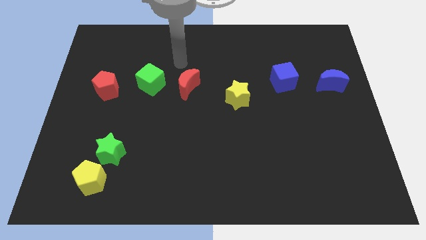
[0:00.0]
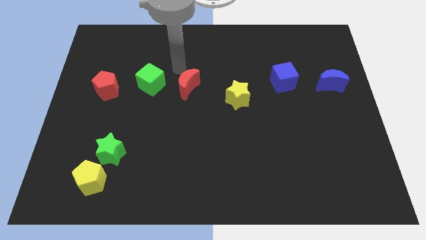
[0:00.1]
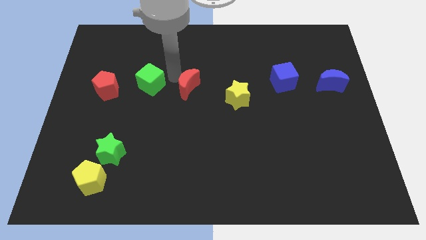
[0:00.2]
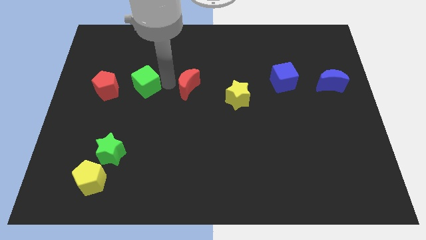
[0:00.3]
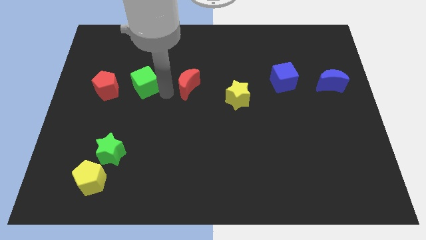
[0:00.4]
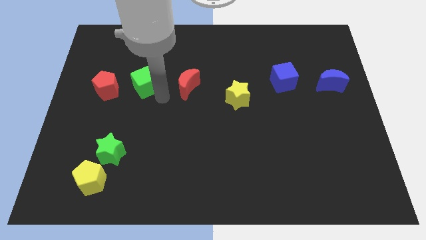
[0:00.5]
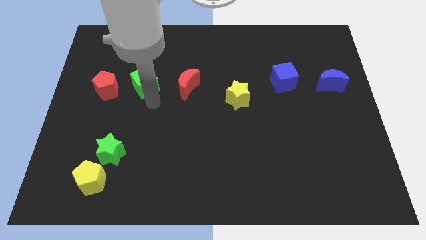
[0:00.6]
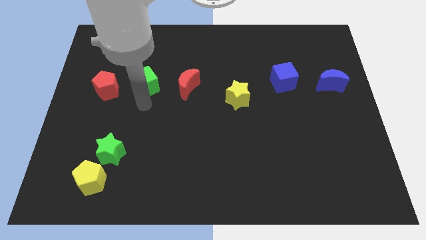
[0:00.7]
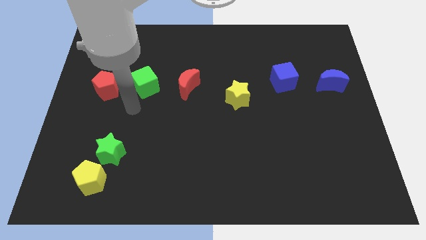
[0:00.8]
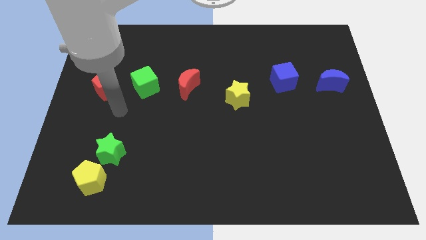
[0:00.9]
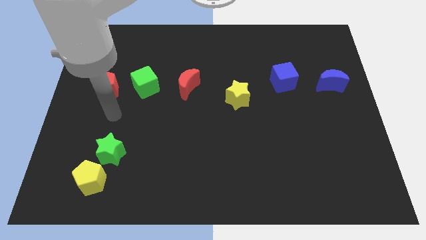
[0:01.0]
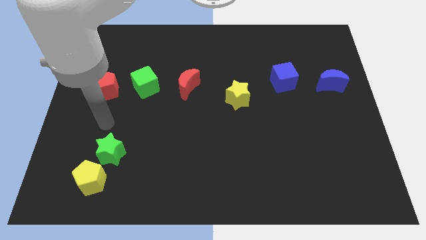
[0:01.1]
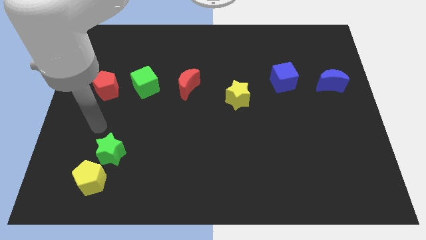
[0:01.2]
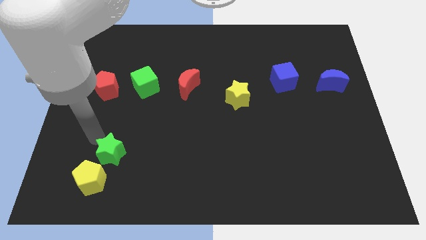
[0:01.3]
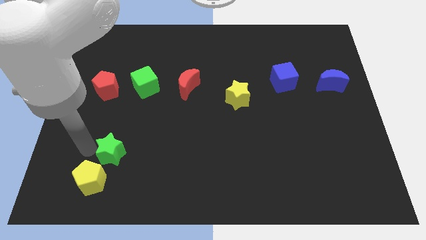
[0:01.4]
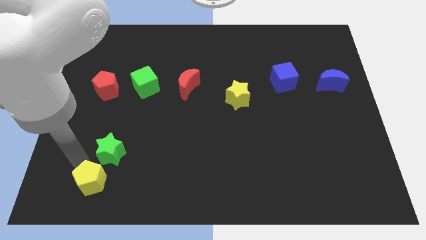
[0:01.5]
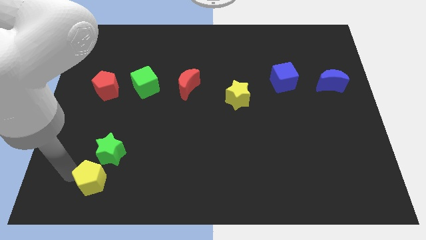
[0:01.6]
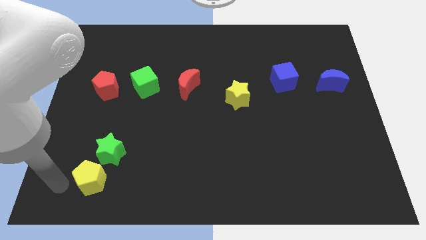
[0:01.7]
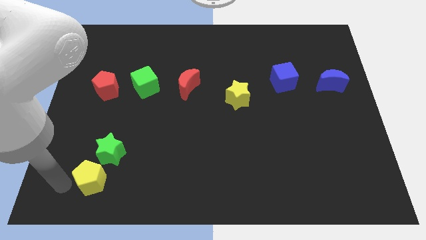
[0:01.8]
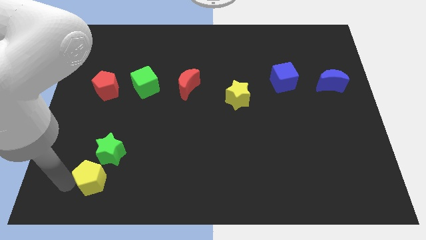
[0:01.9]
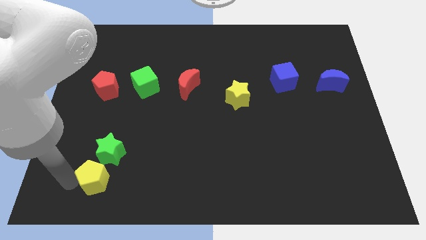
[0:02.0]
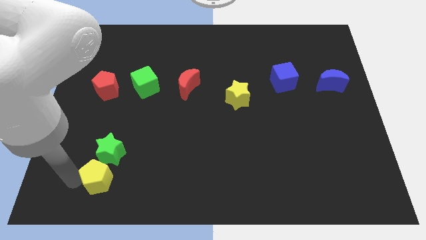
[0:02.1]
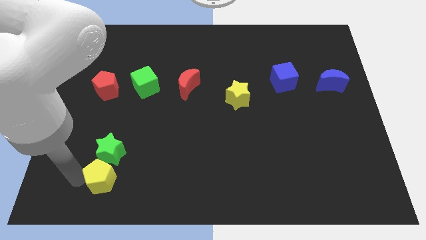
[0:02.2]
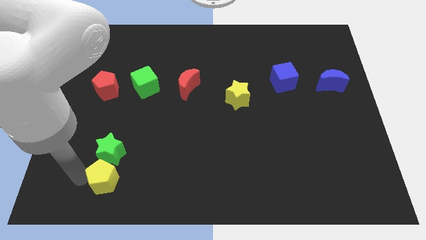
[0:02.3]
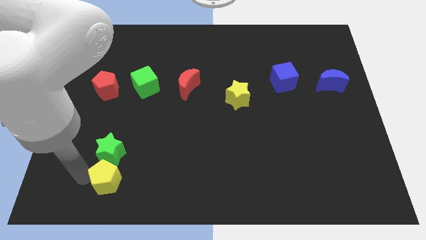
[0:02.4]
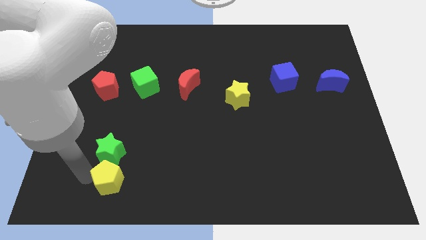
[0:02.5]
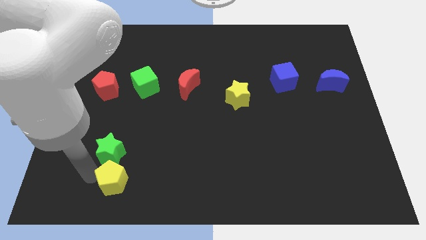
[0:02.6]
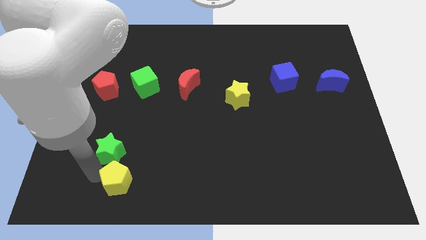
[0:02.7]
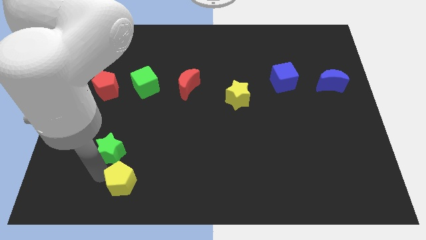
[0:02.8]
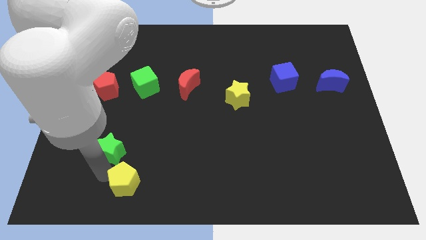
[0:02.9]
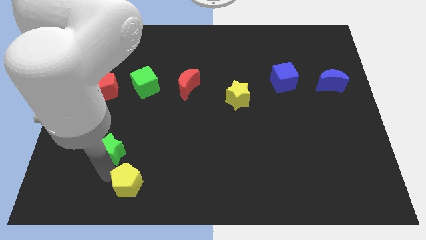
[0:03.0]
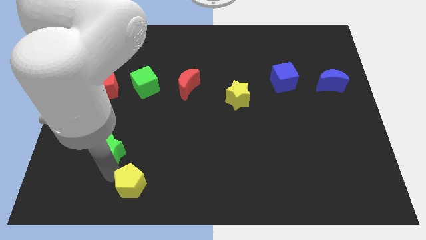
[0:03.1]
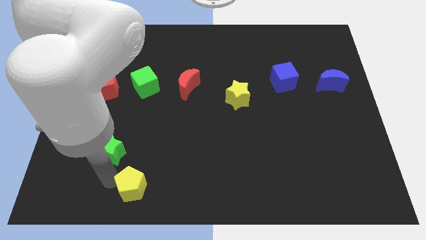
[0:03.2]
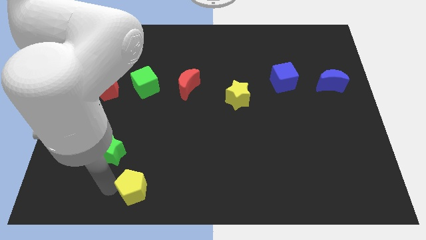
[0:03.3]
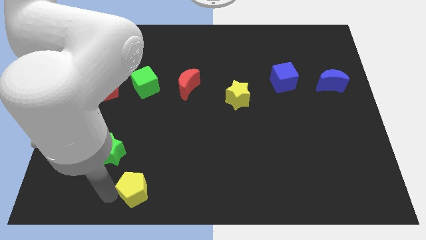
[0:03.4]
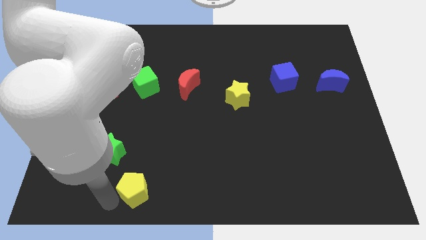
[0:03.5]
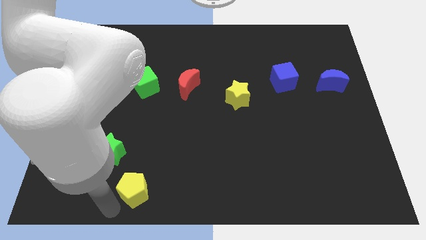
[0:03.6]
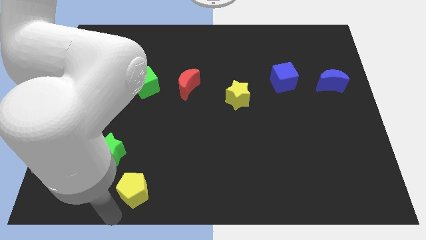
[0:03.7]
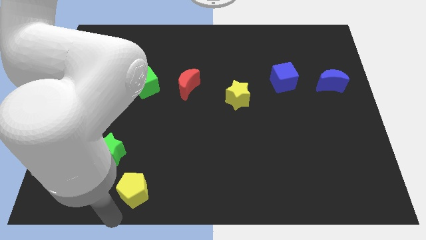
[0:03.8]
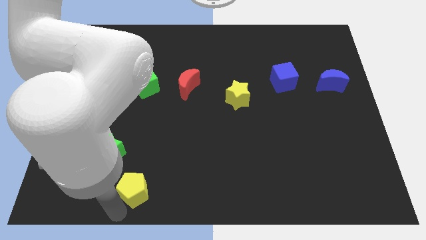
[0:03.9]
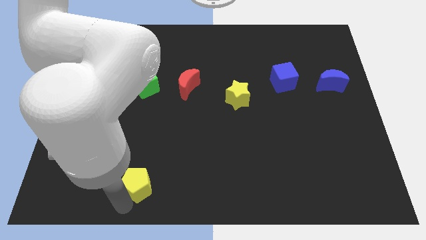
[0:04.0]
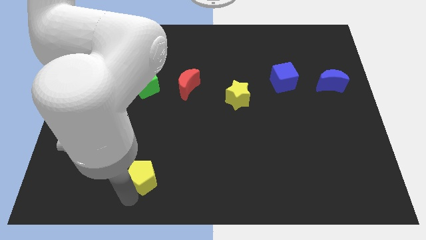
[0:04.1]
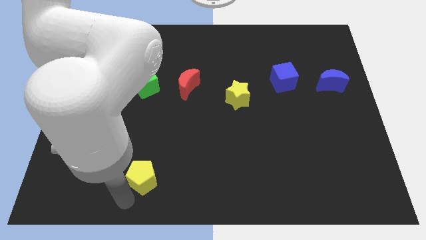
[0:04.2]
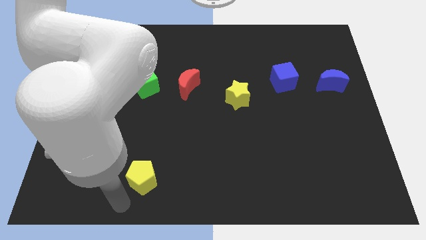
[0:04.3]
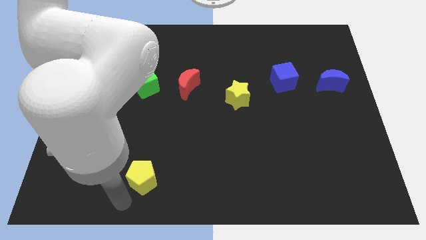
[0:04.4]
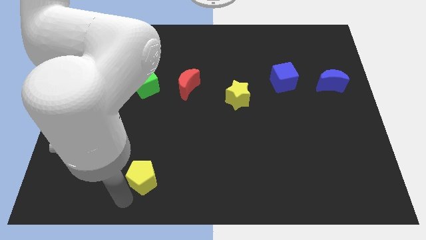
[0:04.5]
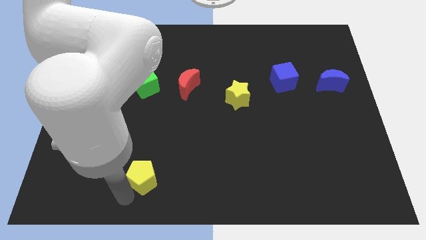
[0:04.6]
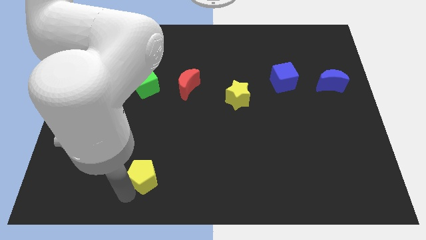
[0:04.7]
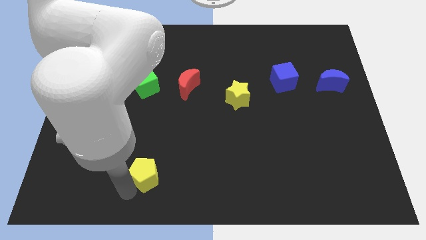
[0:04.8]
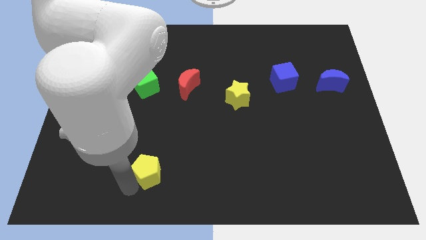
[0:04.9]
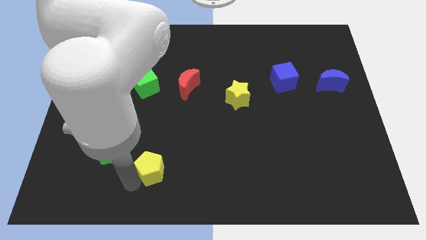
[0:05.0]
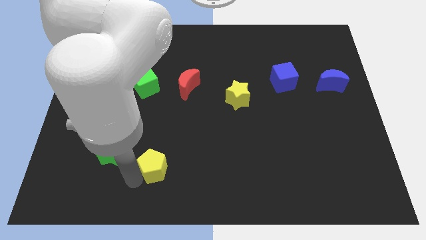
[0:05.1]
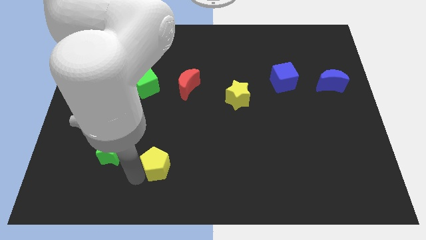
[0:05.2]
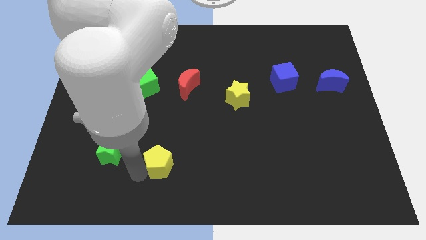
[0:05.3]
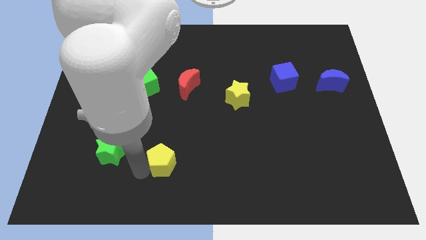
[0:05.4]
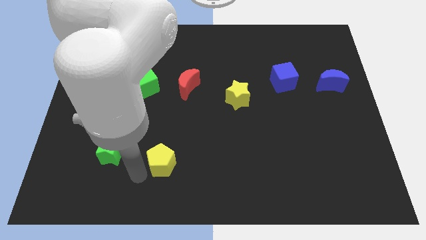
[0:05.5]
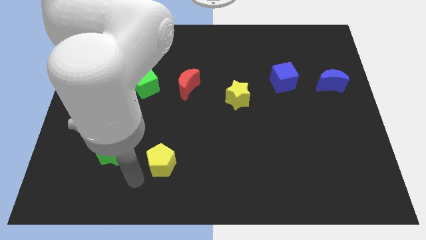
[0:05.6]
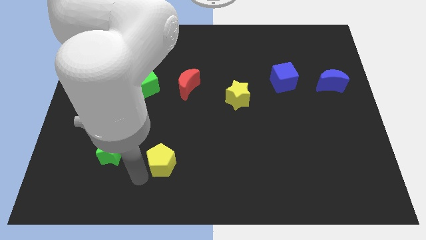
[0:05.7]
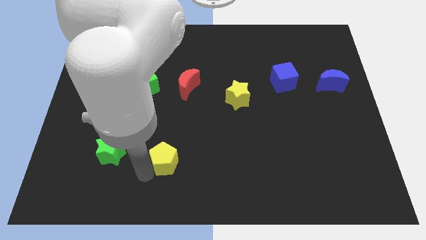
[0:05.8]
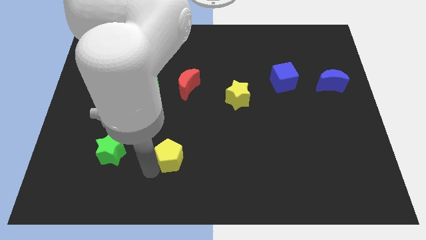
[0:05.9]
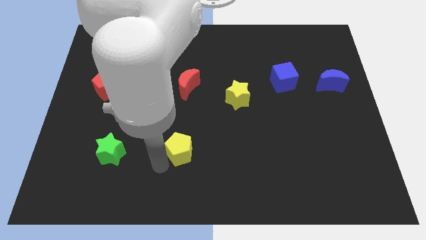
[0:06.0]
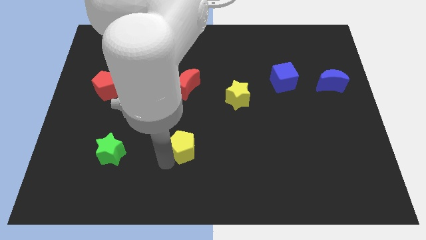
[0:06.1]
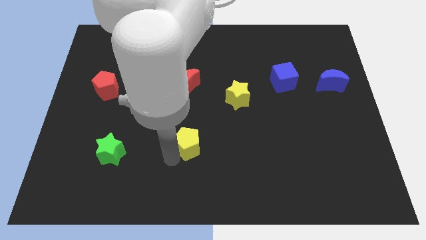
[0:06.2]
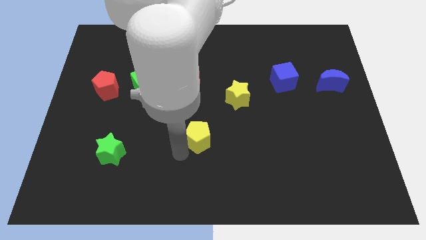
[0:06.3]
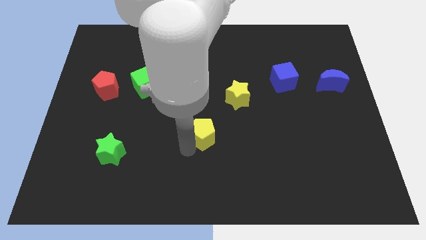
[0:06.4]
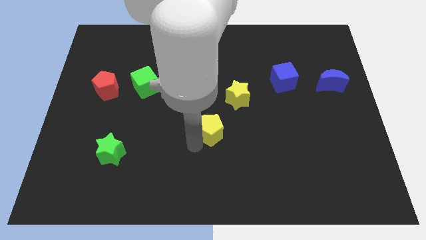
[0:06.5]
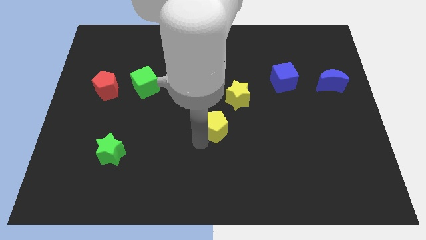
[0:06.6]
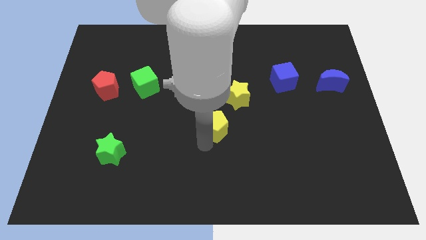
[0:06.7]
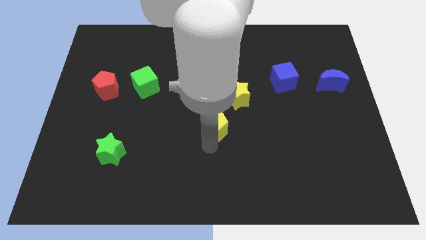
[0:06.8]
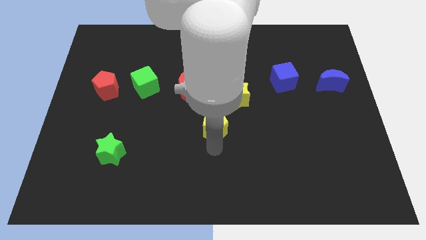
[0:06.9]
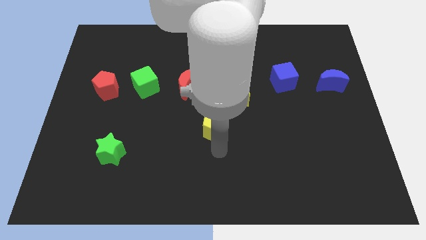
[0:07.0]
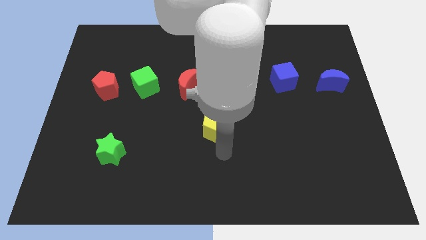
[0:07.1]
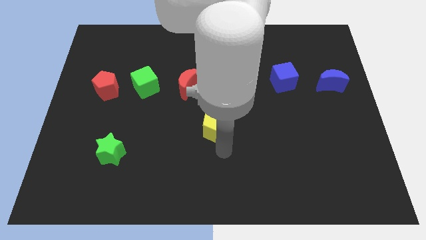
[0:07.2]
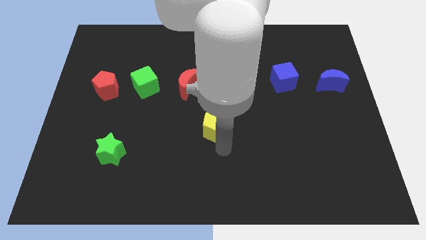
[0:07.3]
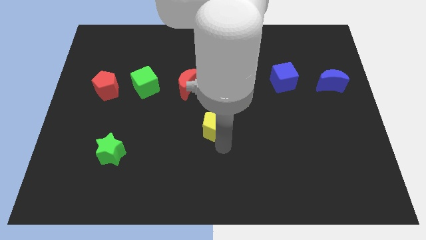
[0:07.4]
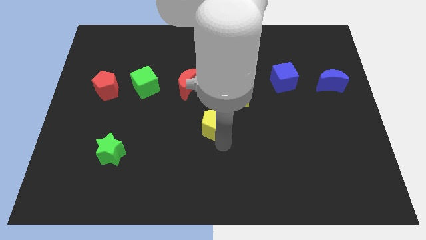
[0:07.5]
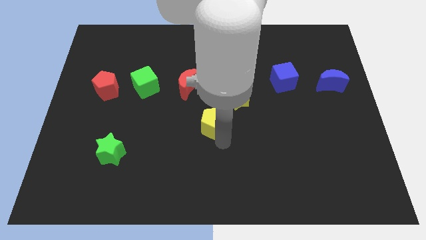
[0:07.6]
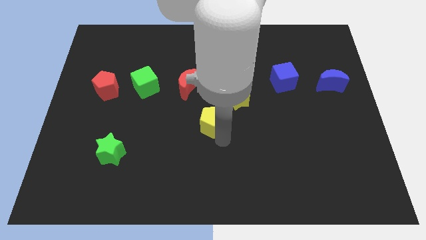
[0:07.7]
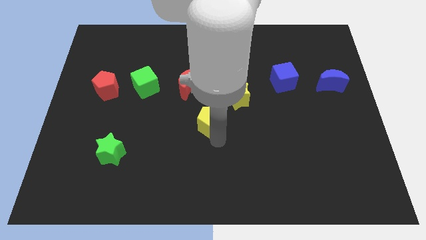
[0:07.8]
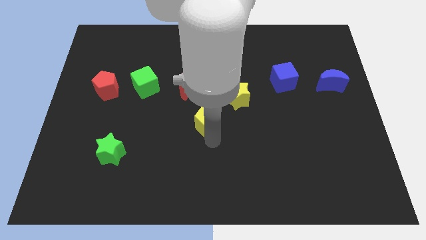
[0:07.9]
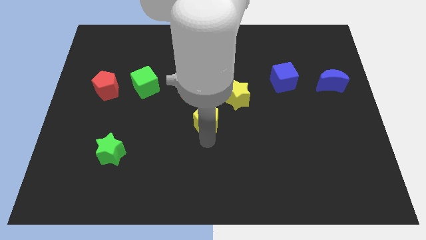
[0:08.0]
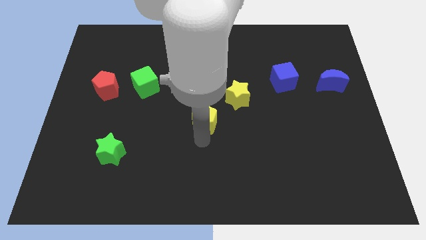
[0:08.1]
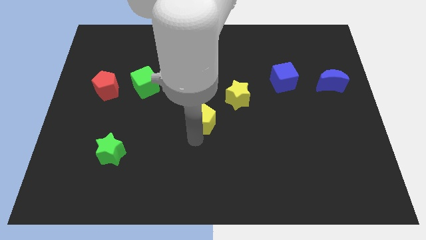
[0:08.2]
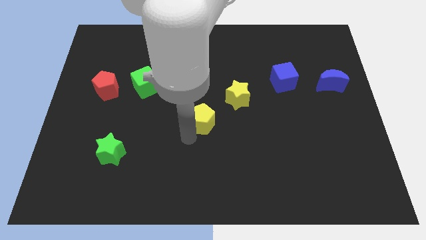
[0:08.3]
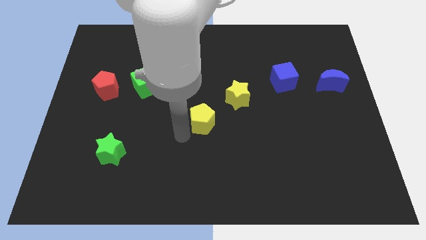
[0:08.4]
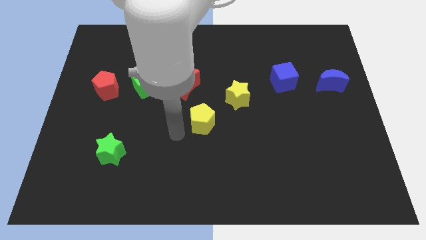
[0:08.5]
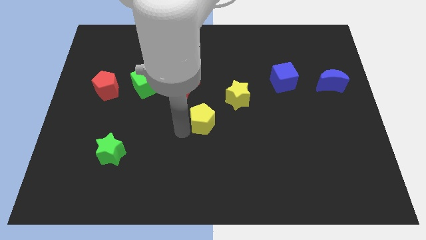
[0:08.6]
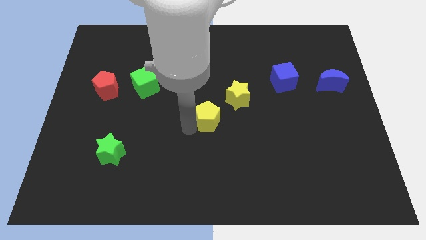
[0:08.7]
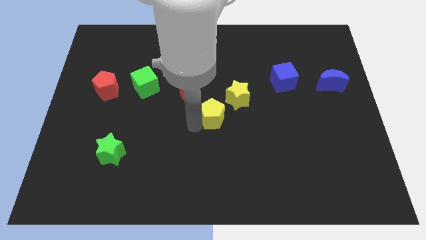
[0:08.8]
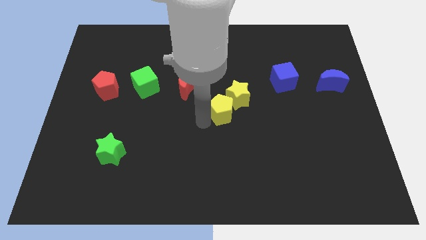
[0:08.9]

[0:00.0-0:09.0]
put the yellow pentagon next to the yellow star
